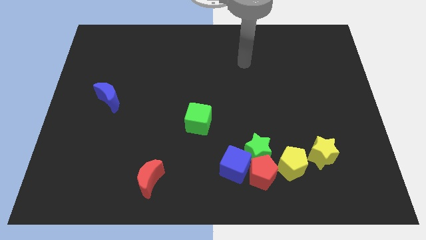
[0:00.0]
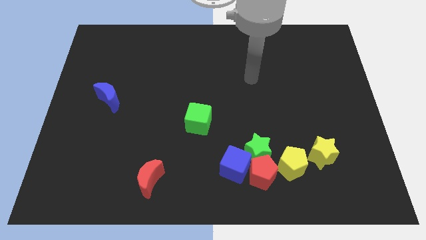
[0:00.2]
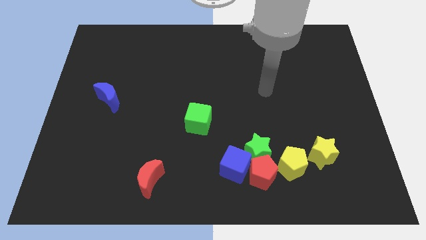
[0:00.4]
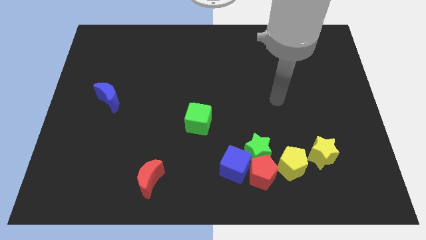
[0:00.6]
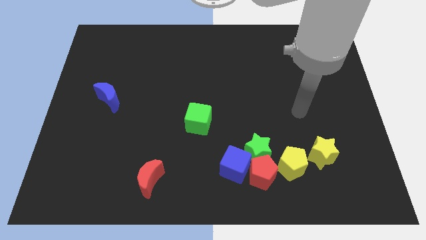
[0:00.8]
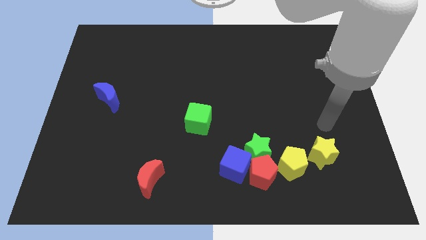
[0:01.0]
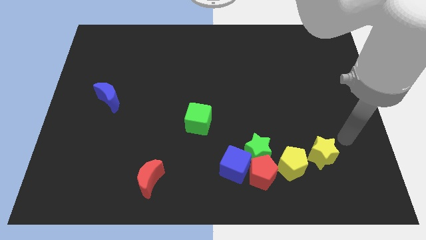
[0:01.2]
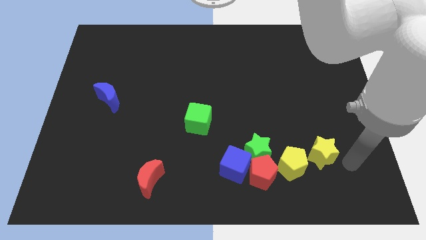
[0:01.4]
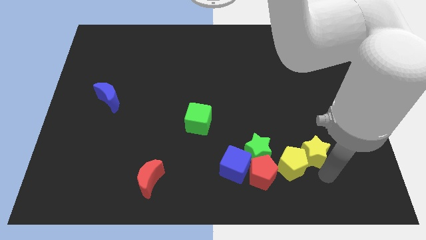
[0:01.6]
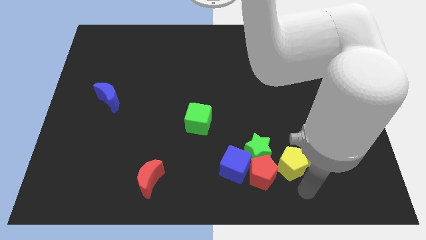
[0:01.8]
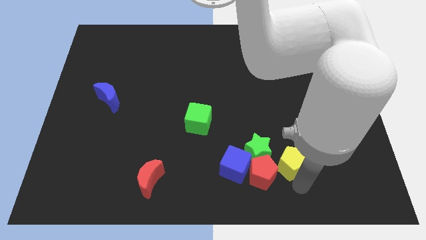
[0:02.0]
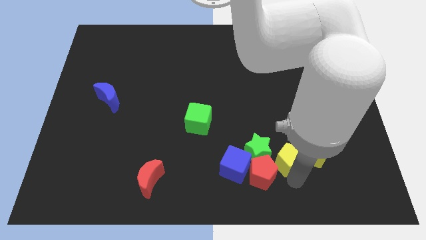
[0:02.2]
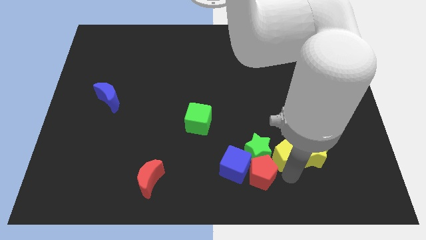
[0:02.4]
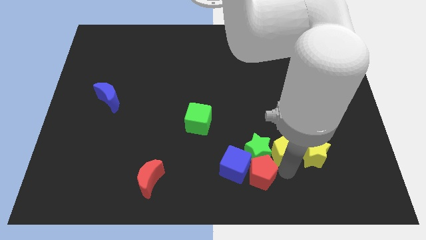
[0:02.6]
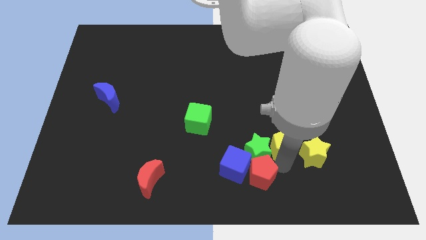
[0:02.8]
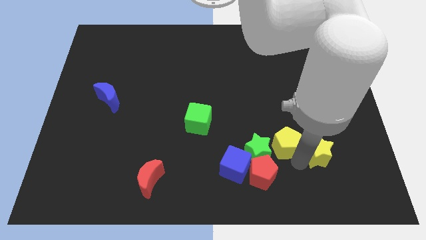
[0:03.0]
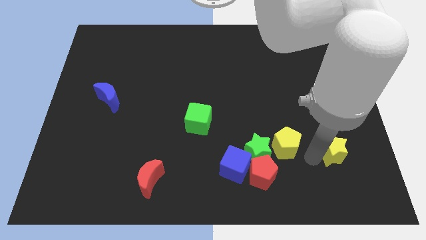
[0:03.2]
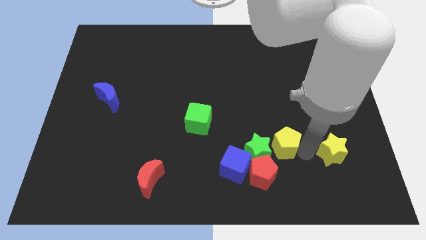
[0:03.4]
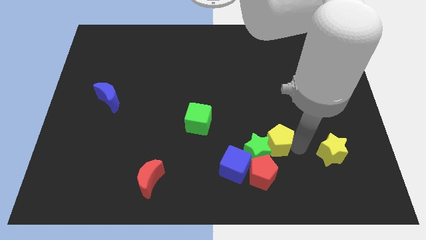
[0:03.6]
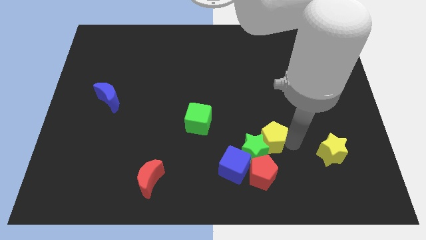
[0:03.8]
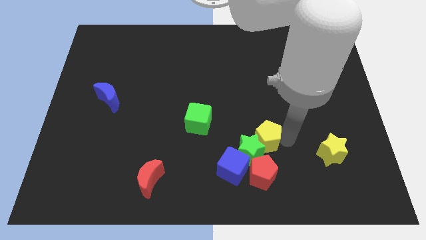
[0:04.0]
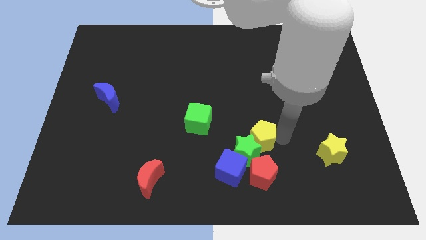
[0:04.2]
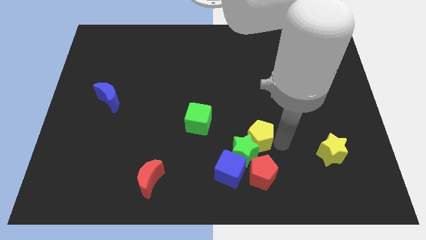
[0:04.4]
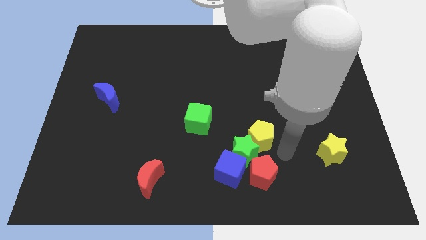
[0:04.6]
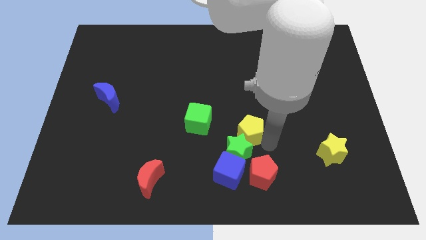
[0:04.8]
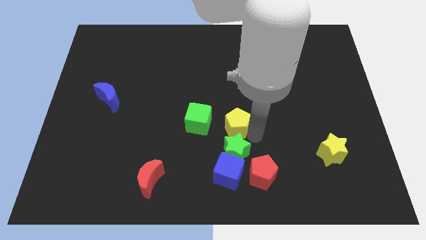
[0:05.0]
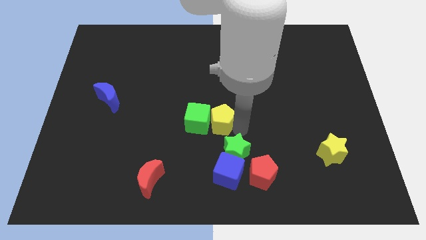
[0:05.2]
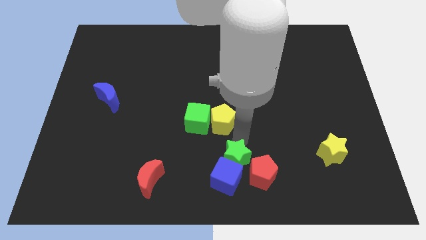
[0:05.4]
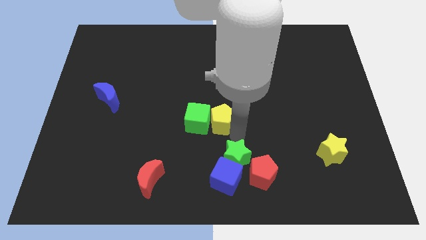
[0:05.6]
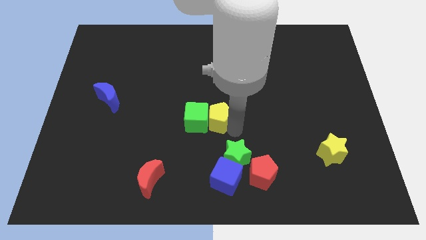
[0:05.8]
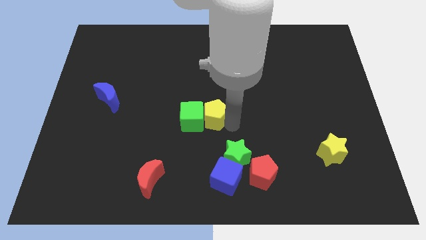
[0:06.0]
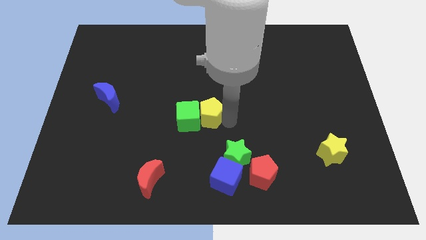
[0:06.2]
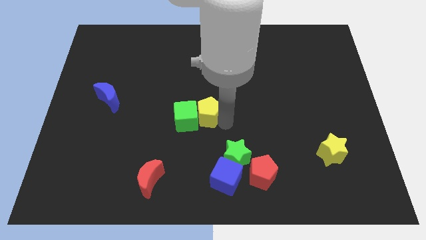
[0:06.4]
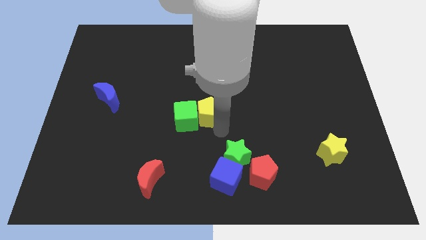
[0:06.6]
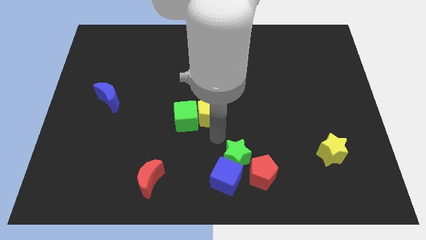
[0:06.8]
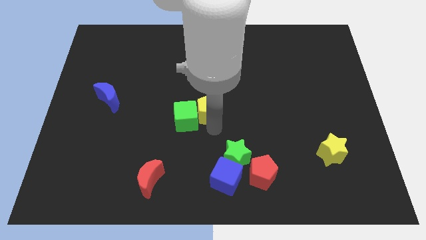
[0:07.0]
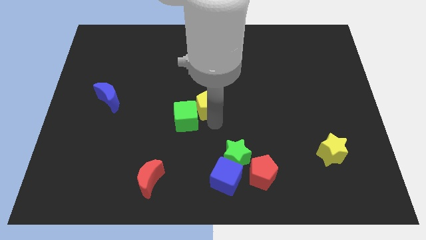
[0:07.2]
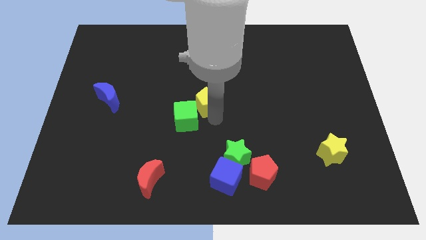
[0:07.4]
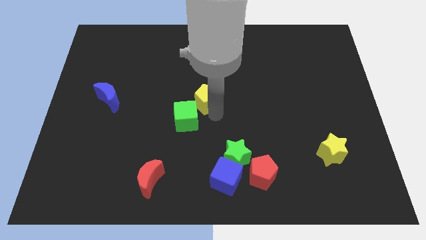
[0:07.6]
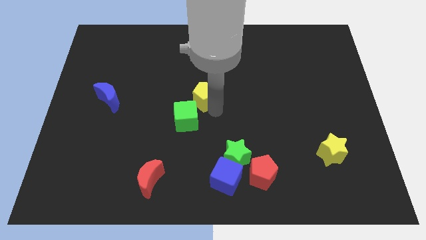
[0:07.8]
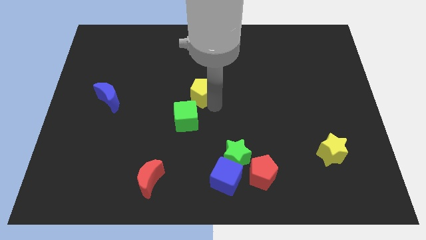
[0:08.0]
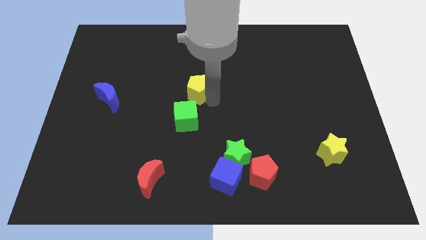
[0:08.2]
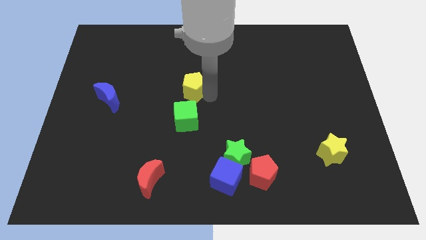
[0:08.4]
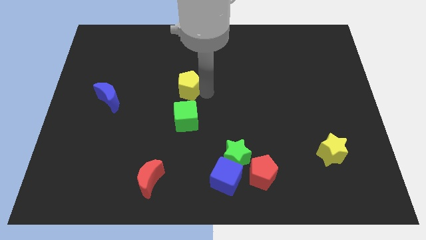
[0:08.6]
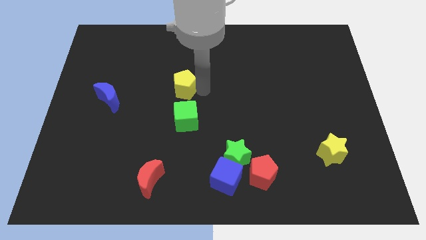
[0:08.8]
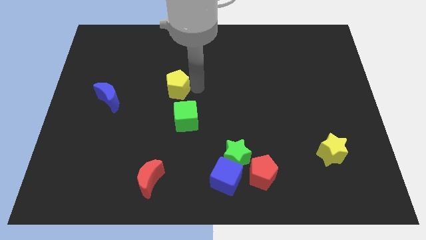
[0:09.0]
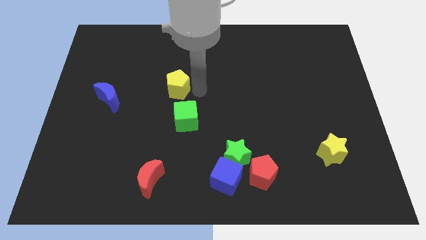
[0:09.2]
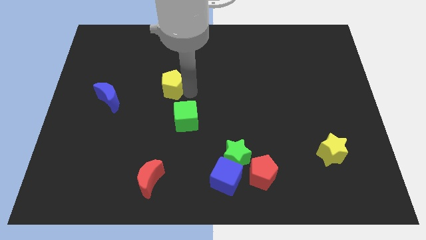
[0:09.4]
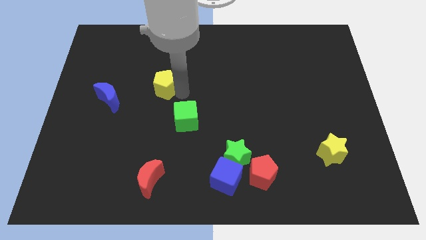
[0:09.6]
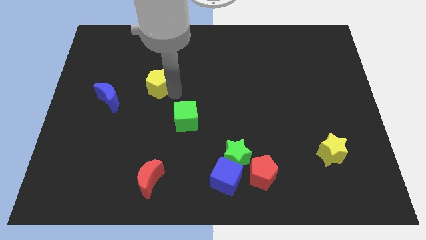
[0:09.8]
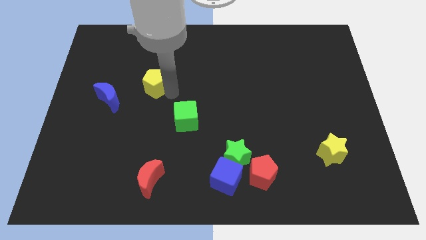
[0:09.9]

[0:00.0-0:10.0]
slide the yellow pentagon diagonally up and to the right of the blue moon

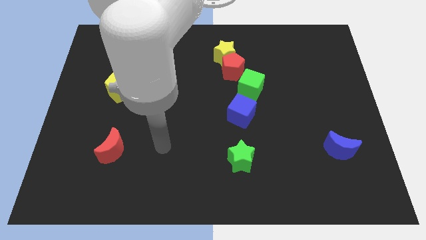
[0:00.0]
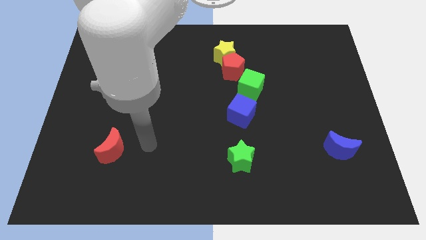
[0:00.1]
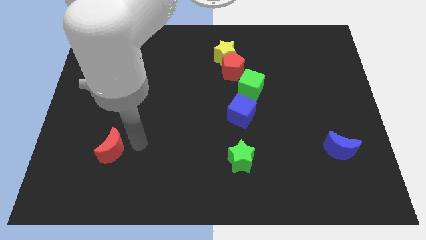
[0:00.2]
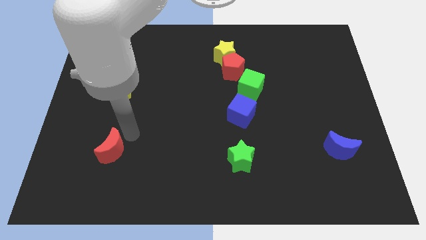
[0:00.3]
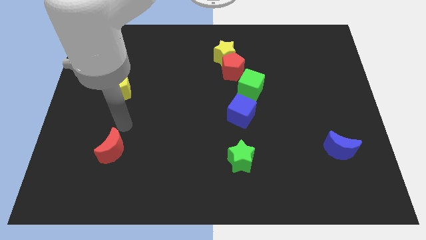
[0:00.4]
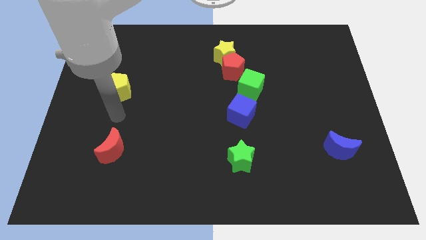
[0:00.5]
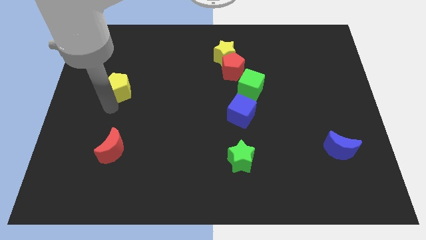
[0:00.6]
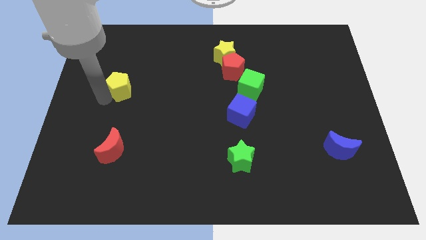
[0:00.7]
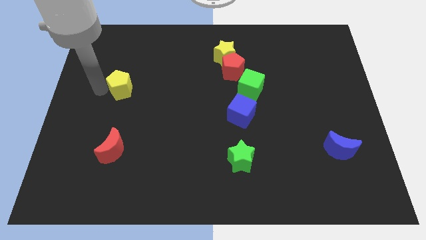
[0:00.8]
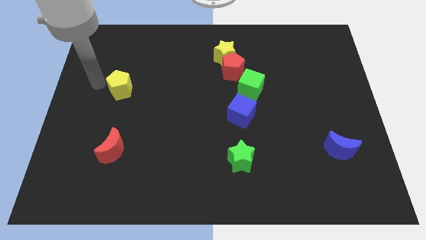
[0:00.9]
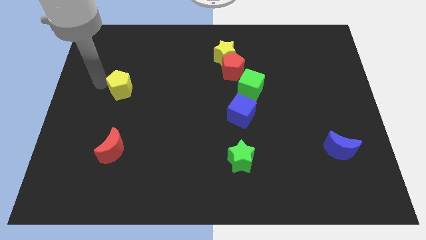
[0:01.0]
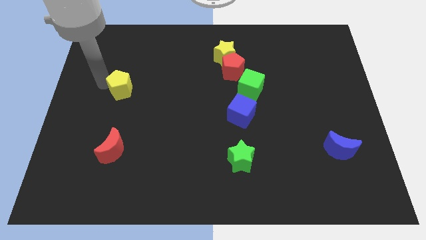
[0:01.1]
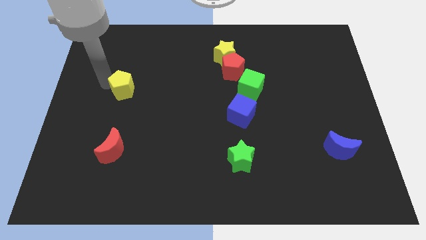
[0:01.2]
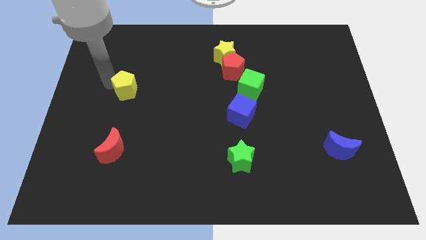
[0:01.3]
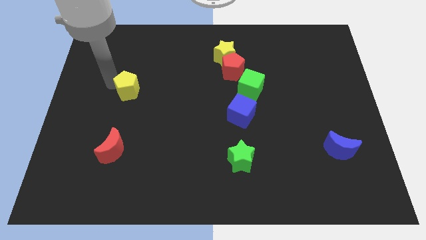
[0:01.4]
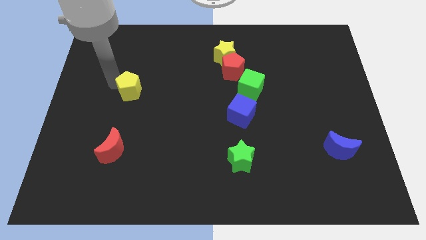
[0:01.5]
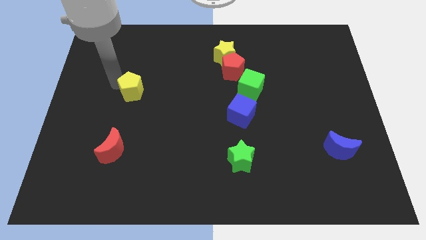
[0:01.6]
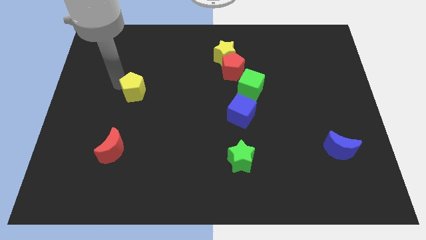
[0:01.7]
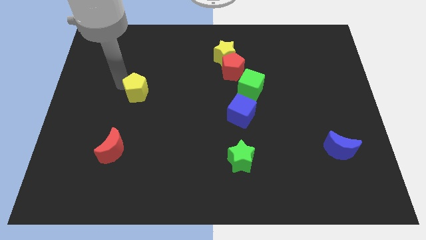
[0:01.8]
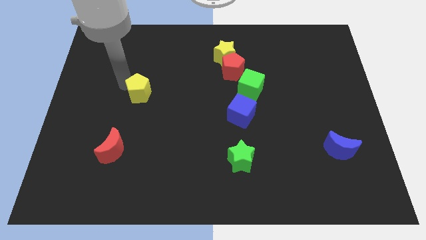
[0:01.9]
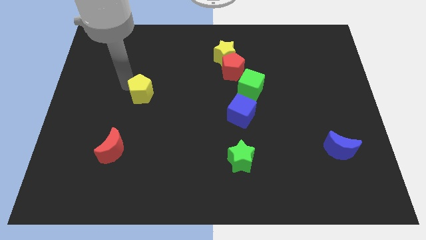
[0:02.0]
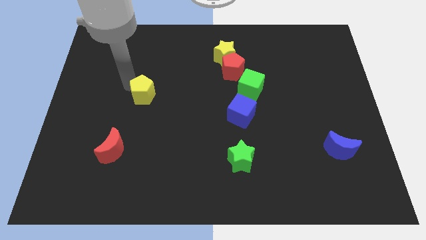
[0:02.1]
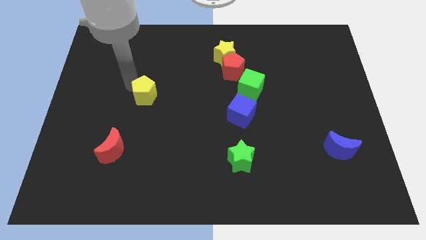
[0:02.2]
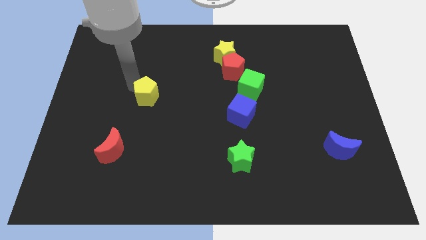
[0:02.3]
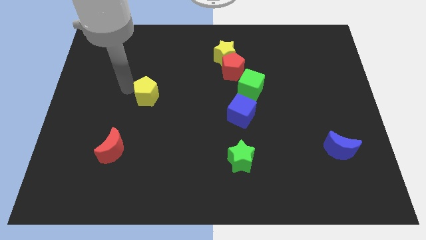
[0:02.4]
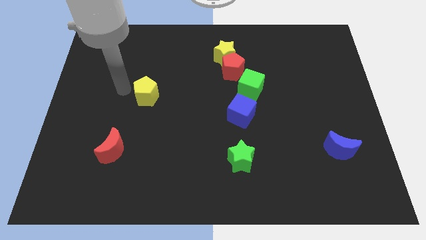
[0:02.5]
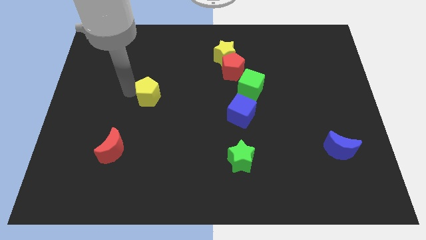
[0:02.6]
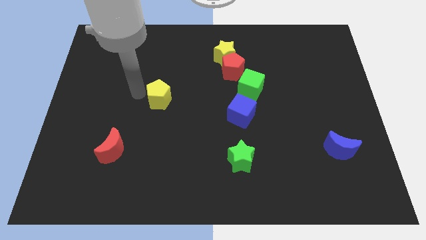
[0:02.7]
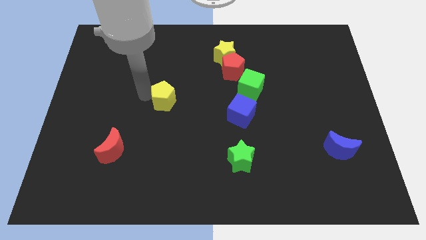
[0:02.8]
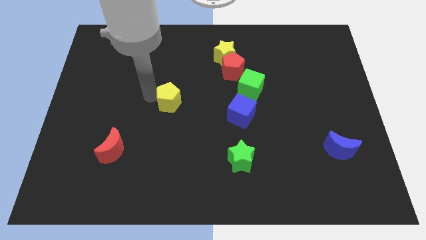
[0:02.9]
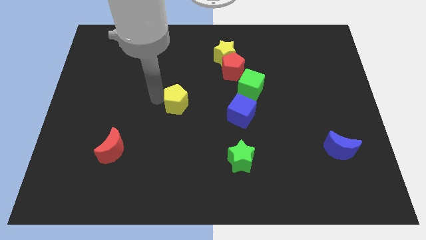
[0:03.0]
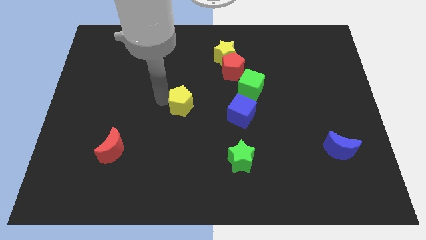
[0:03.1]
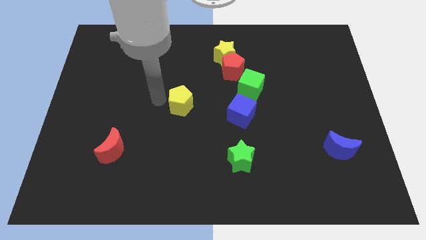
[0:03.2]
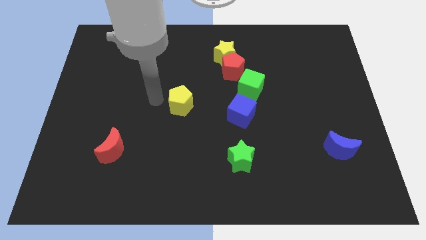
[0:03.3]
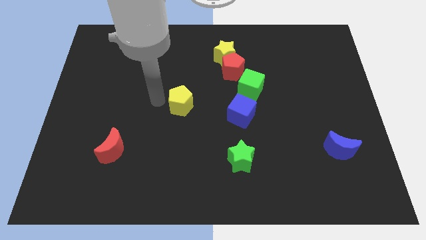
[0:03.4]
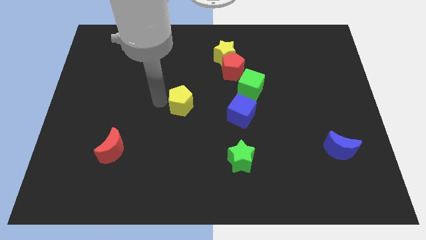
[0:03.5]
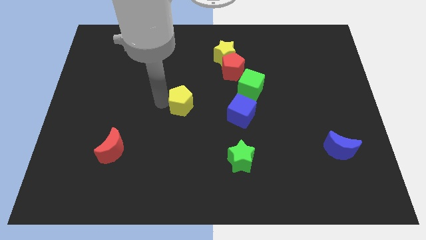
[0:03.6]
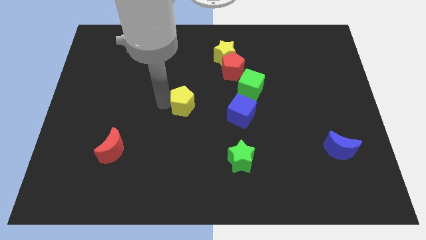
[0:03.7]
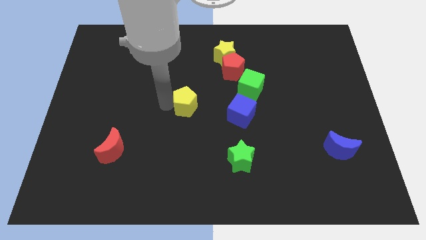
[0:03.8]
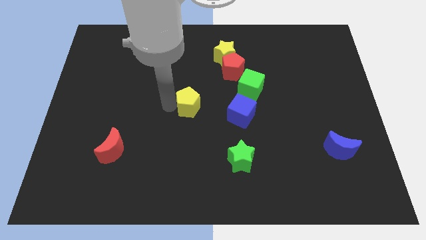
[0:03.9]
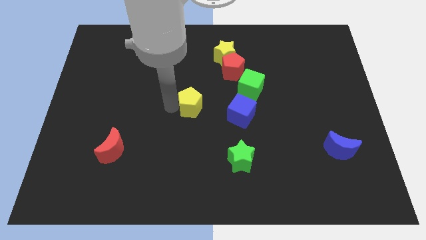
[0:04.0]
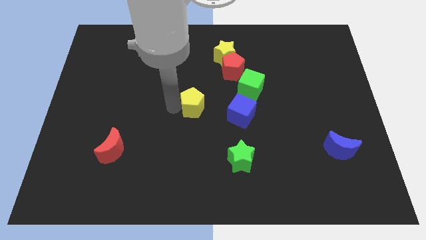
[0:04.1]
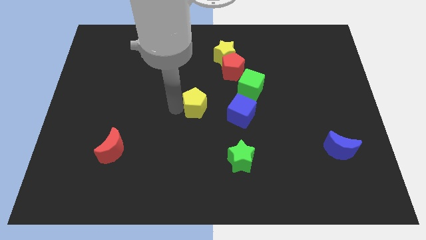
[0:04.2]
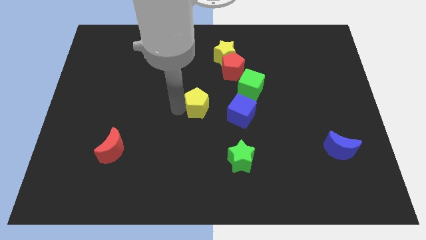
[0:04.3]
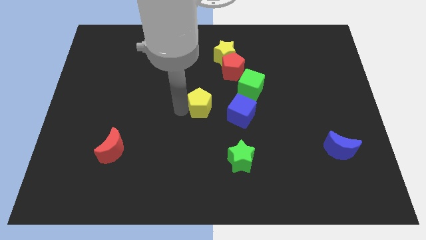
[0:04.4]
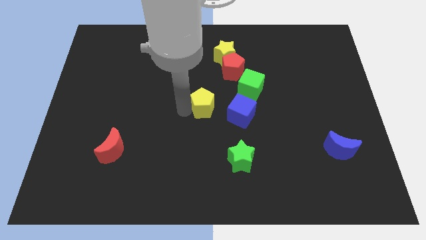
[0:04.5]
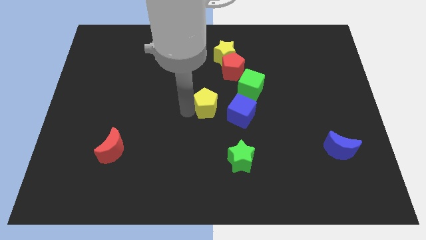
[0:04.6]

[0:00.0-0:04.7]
move the yellow pentagon to the bottom left of the green cube
